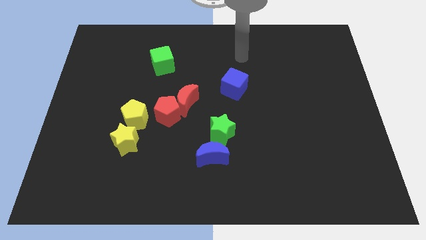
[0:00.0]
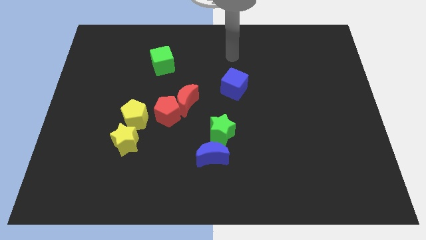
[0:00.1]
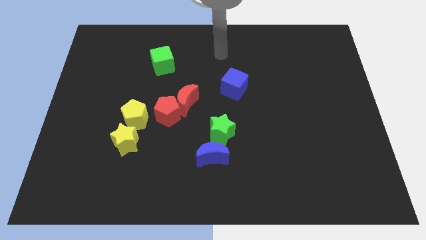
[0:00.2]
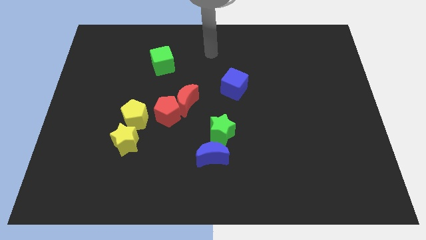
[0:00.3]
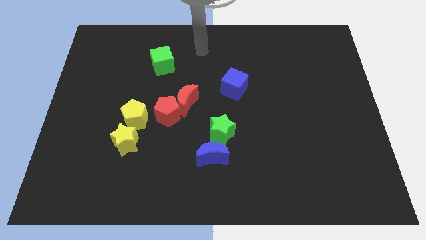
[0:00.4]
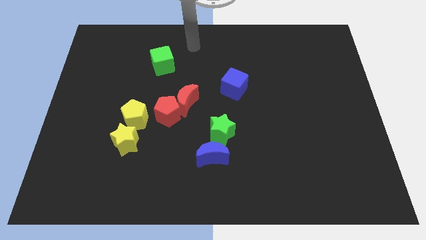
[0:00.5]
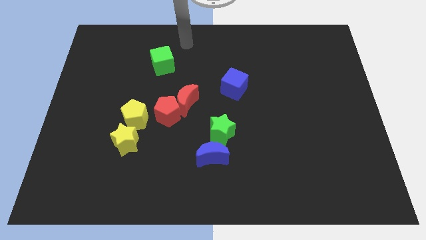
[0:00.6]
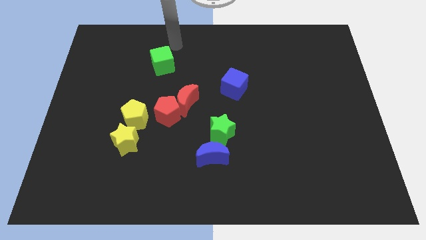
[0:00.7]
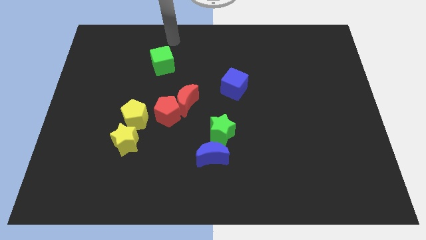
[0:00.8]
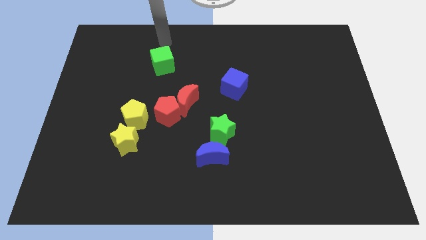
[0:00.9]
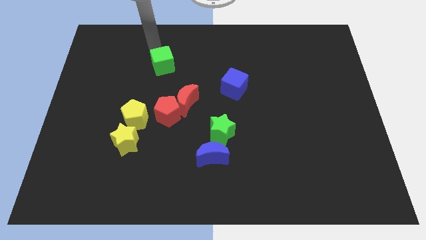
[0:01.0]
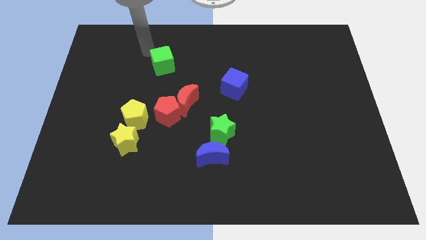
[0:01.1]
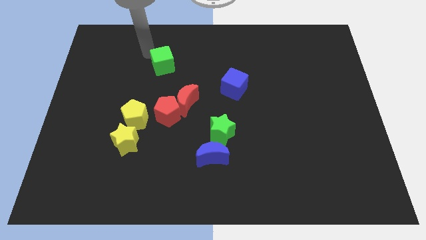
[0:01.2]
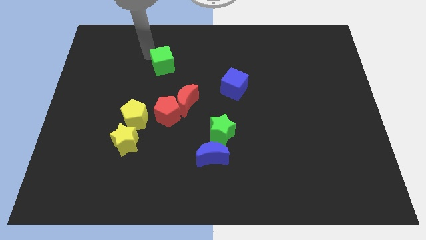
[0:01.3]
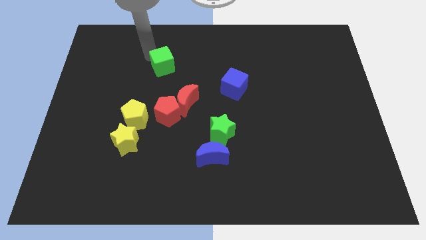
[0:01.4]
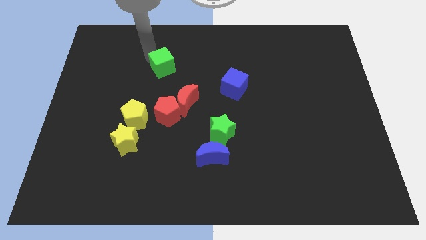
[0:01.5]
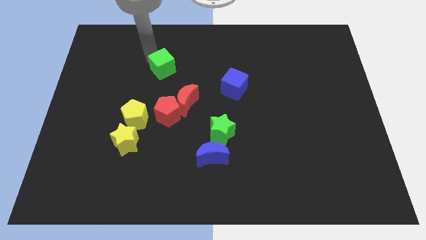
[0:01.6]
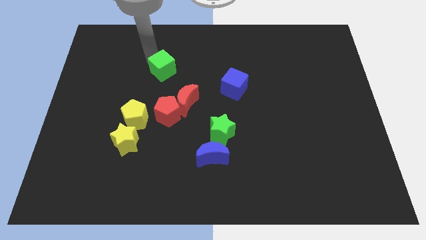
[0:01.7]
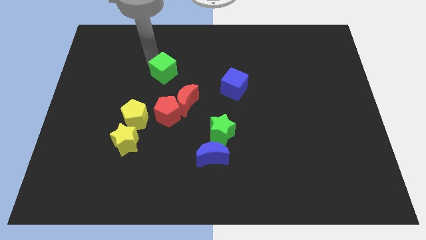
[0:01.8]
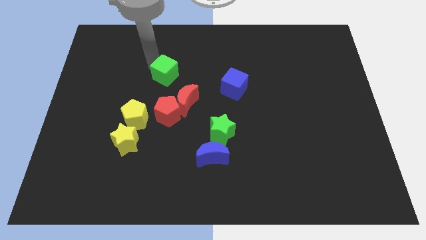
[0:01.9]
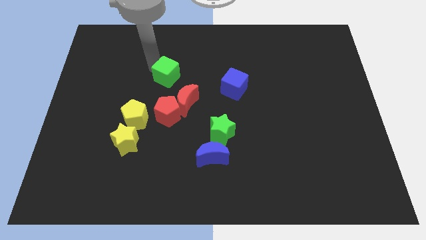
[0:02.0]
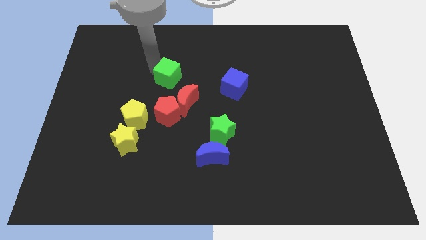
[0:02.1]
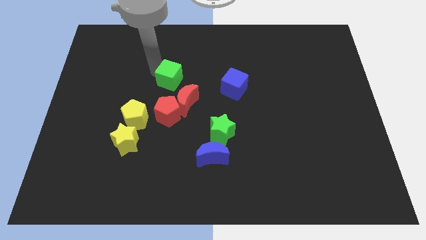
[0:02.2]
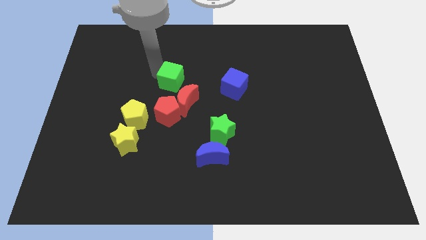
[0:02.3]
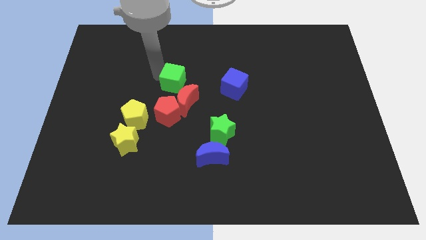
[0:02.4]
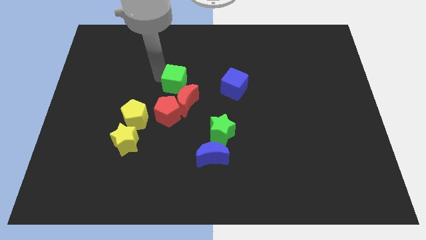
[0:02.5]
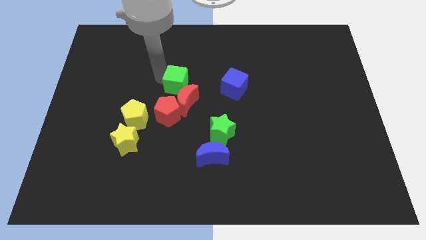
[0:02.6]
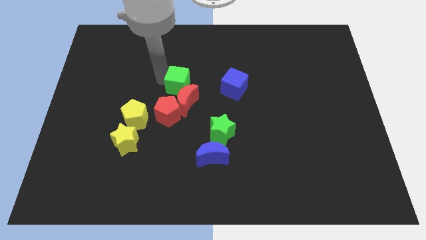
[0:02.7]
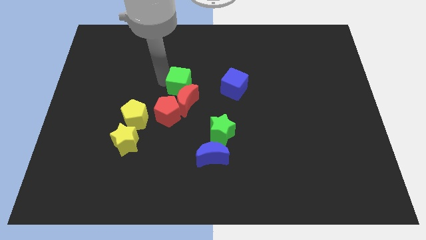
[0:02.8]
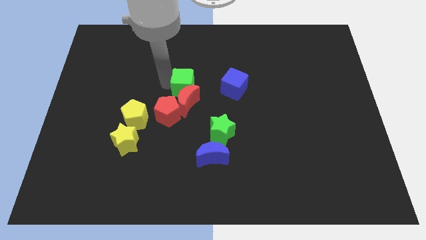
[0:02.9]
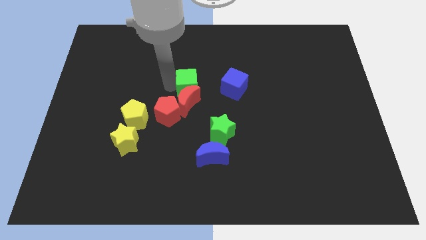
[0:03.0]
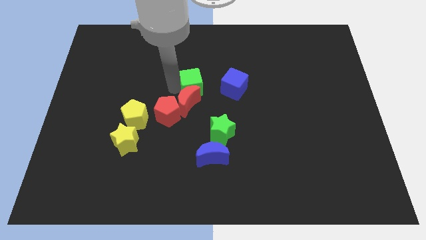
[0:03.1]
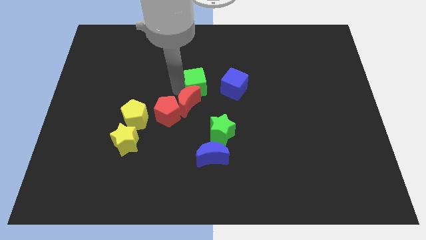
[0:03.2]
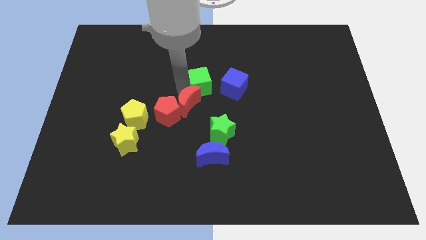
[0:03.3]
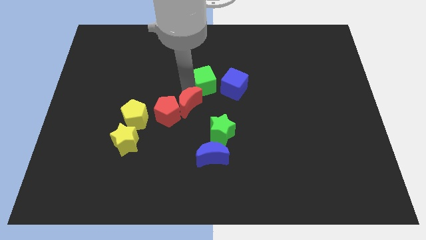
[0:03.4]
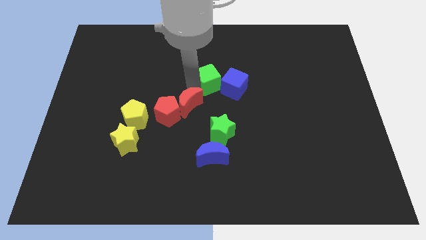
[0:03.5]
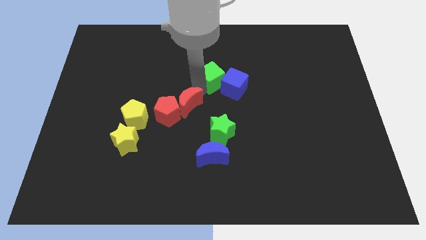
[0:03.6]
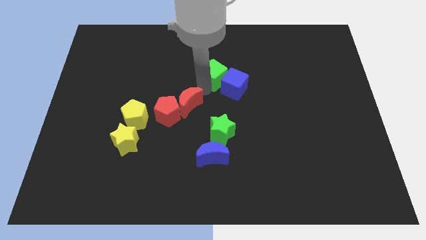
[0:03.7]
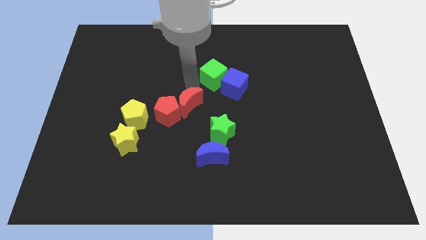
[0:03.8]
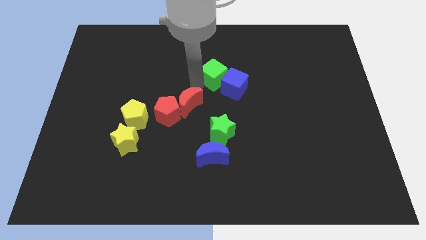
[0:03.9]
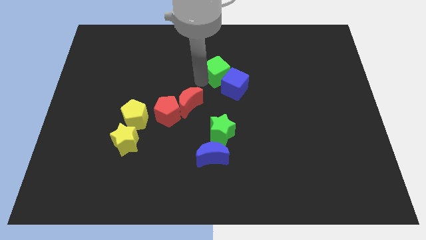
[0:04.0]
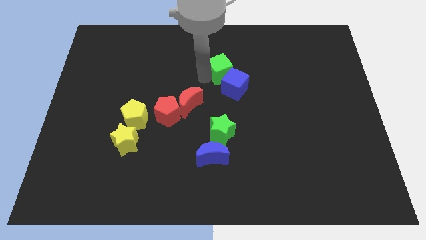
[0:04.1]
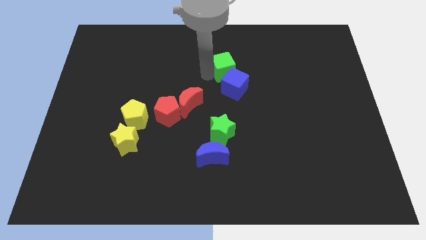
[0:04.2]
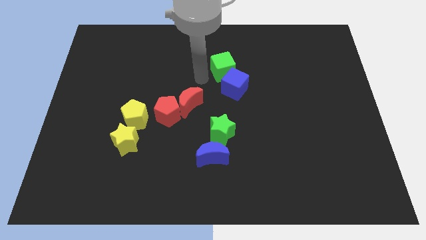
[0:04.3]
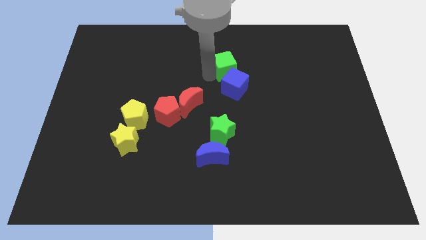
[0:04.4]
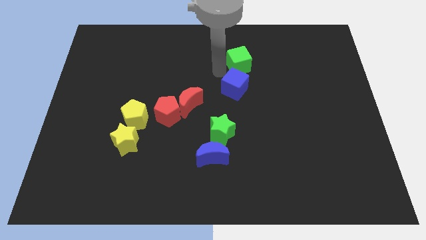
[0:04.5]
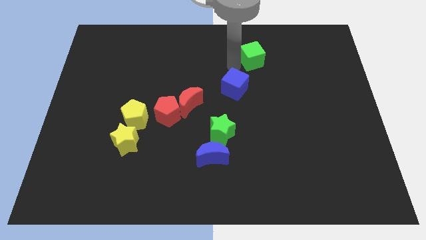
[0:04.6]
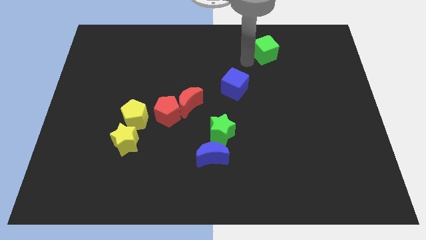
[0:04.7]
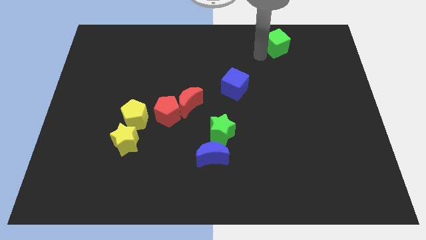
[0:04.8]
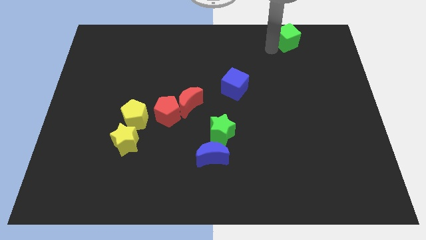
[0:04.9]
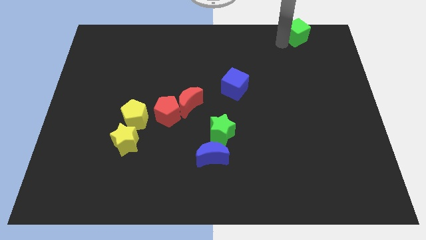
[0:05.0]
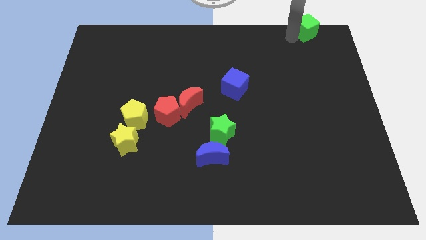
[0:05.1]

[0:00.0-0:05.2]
slide the green cube to the upper right corner

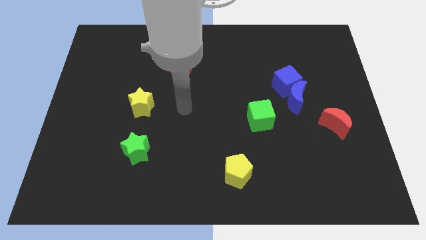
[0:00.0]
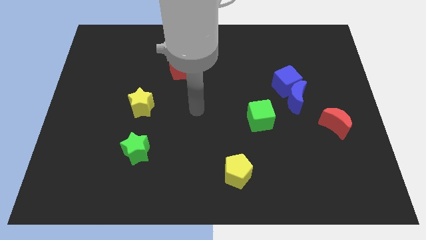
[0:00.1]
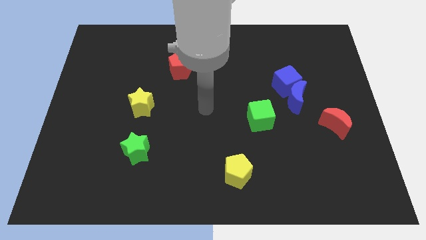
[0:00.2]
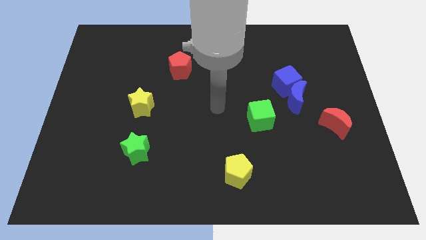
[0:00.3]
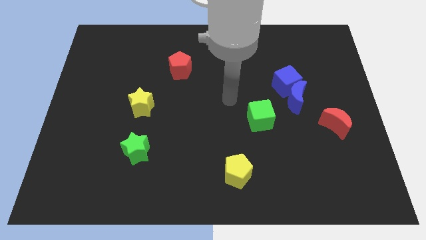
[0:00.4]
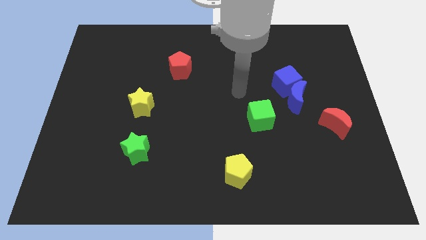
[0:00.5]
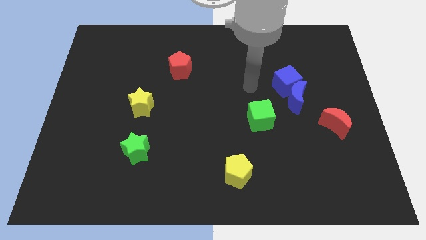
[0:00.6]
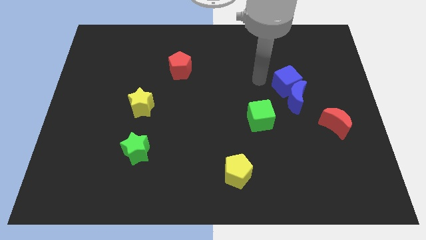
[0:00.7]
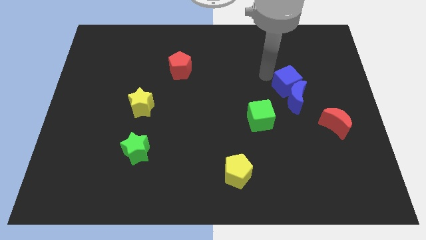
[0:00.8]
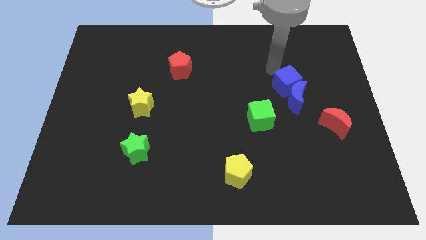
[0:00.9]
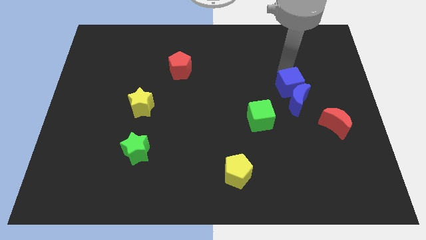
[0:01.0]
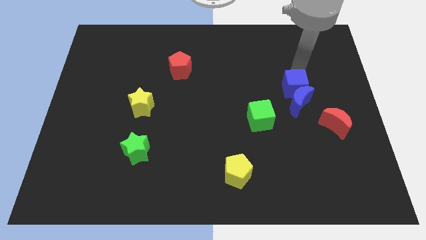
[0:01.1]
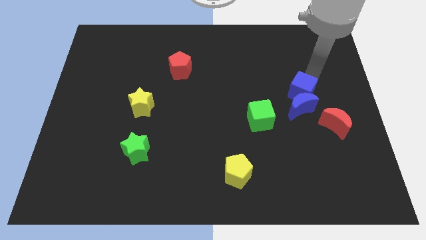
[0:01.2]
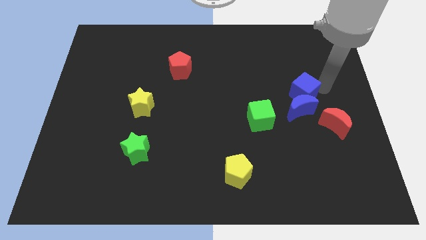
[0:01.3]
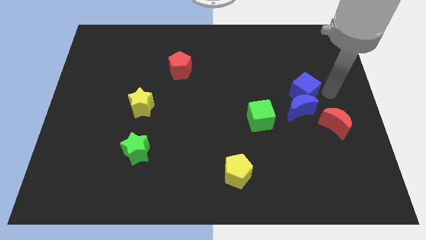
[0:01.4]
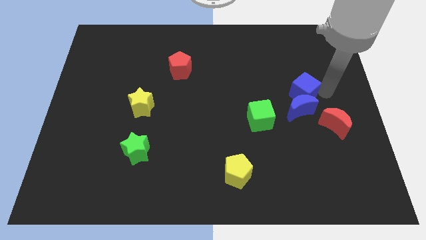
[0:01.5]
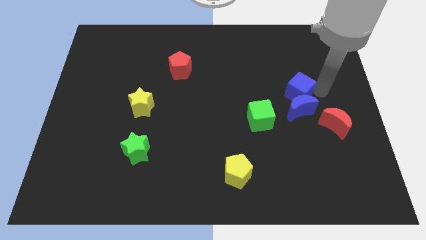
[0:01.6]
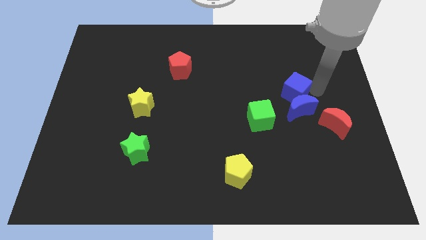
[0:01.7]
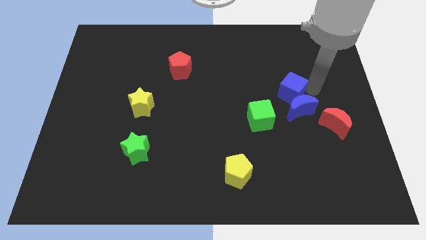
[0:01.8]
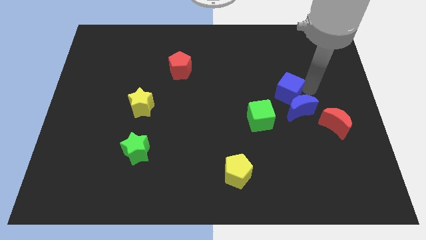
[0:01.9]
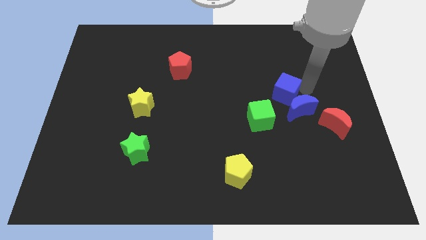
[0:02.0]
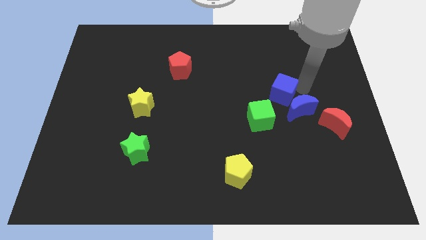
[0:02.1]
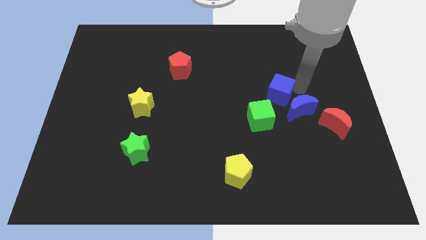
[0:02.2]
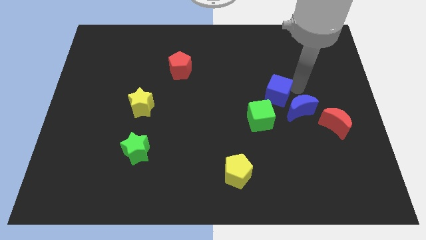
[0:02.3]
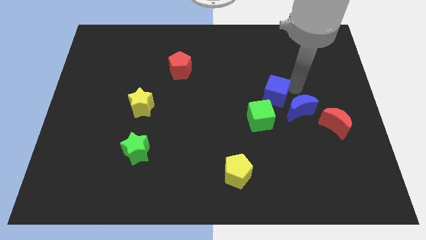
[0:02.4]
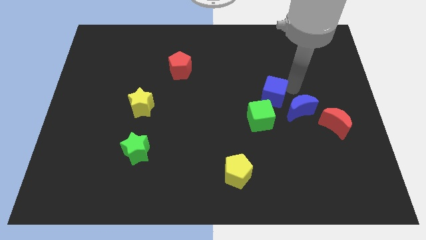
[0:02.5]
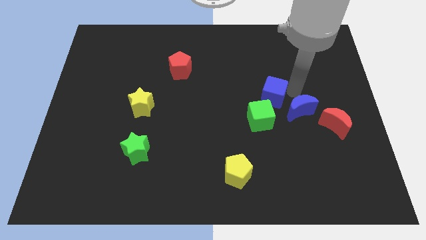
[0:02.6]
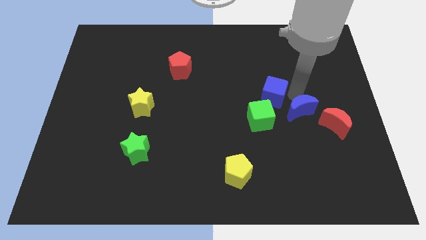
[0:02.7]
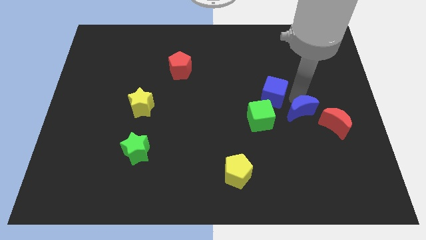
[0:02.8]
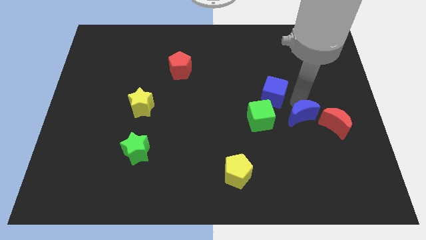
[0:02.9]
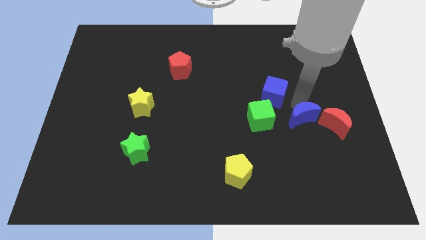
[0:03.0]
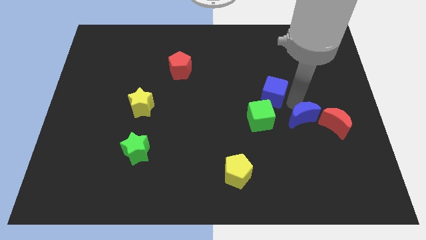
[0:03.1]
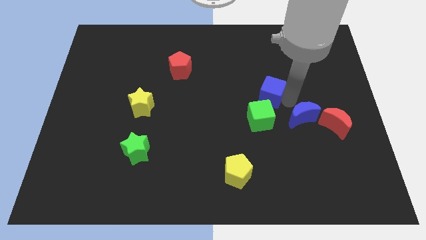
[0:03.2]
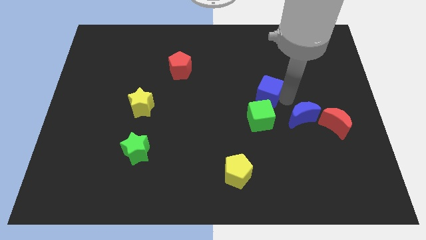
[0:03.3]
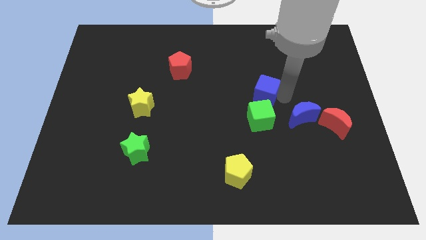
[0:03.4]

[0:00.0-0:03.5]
slide the blue cube to the middle of the board
